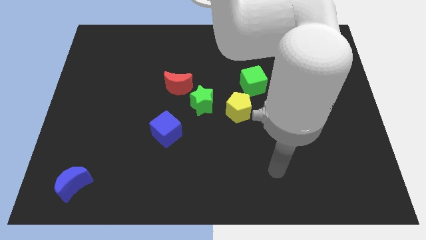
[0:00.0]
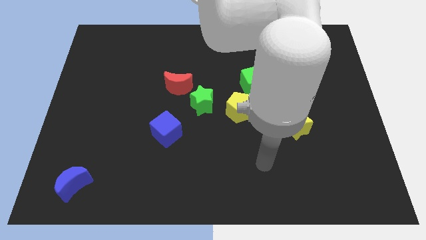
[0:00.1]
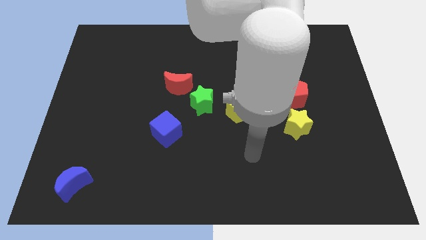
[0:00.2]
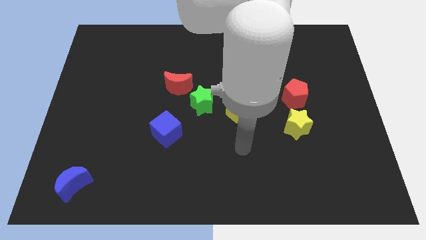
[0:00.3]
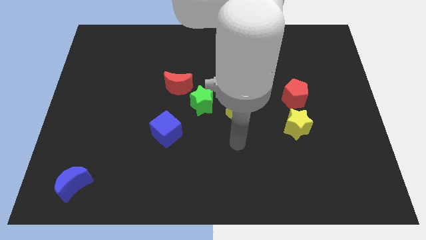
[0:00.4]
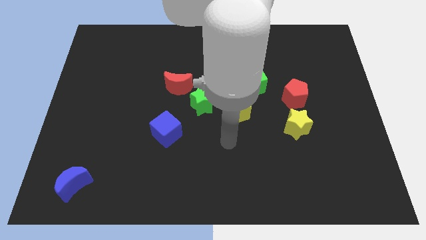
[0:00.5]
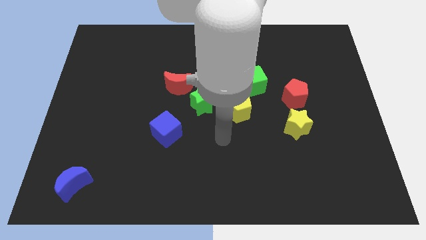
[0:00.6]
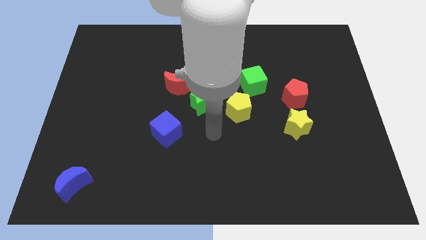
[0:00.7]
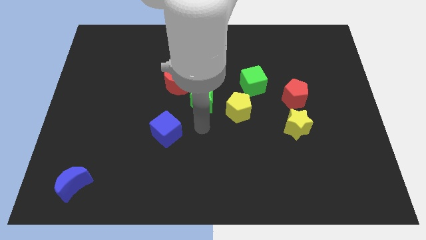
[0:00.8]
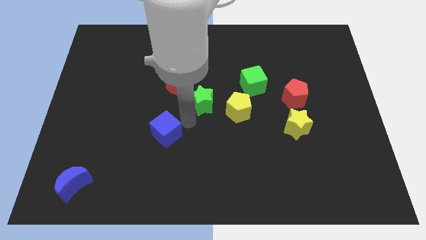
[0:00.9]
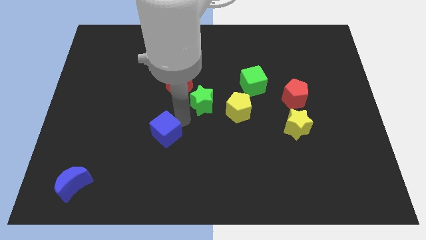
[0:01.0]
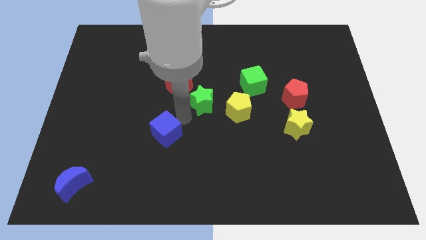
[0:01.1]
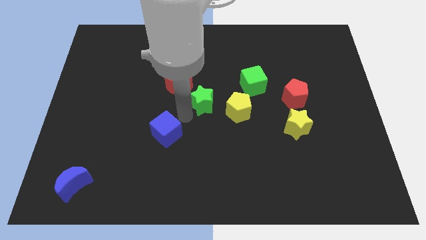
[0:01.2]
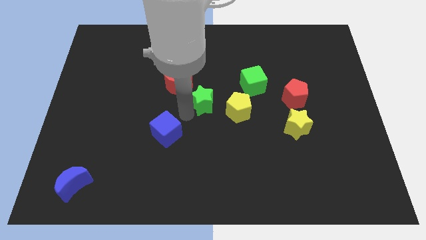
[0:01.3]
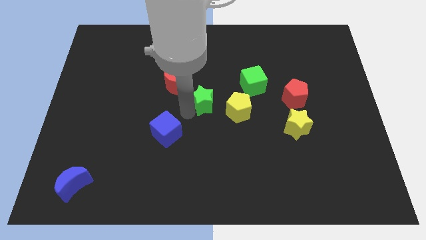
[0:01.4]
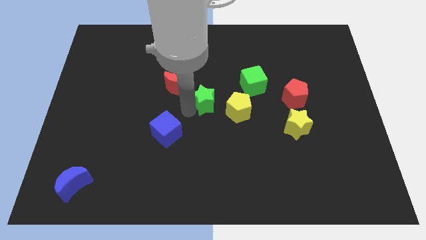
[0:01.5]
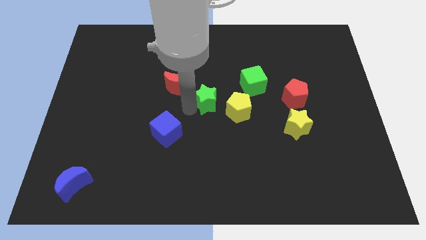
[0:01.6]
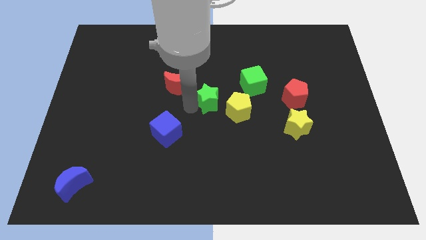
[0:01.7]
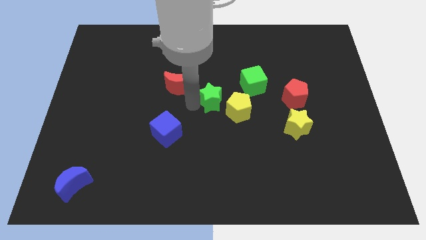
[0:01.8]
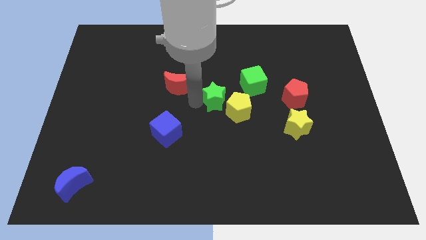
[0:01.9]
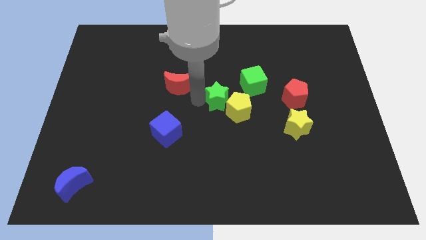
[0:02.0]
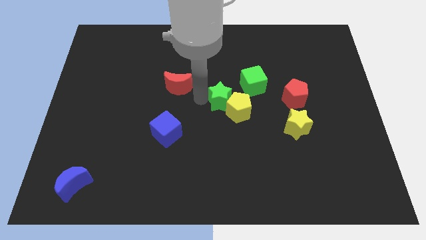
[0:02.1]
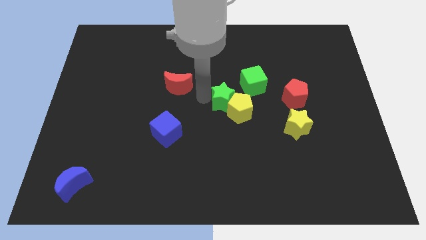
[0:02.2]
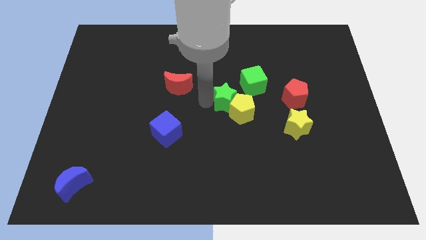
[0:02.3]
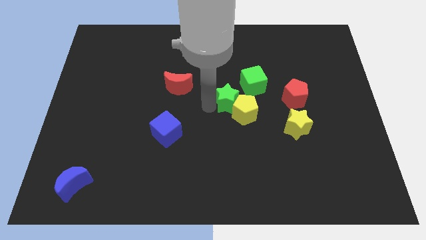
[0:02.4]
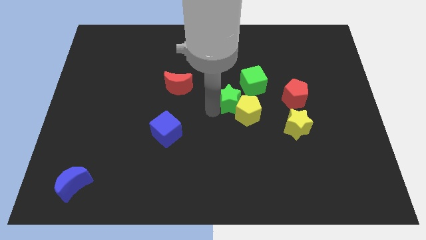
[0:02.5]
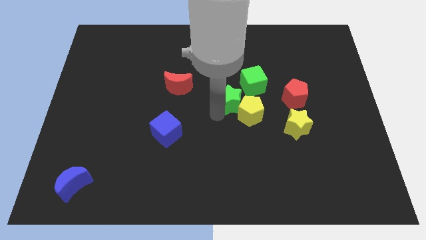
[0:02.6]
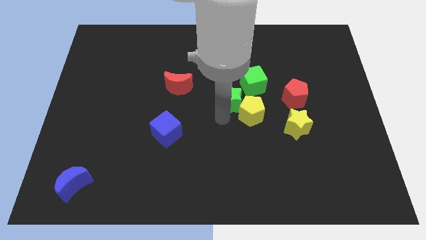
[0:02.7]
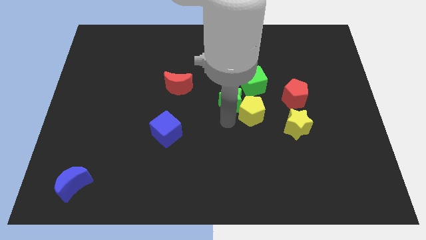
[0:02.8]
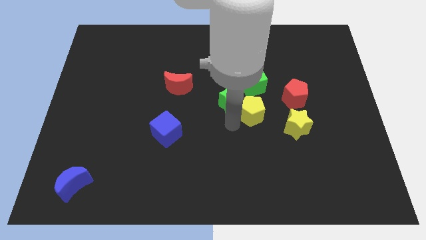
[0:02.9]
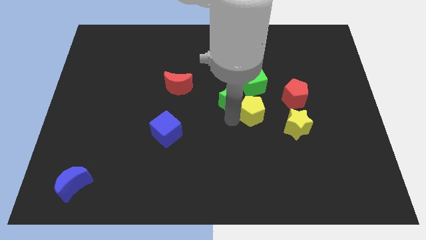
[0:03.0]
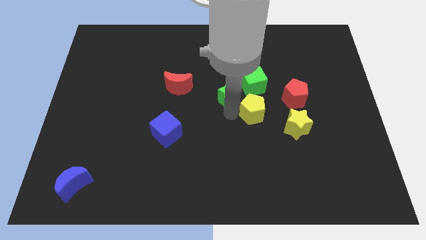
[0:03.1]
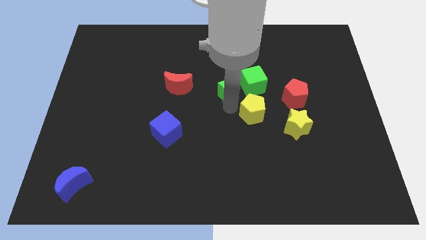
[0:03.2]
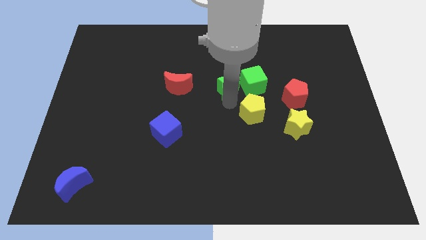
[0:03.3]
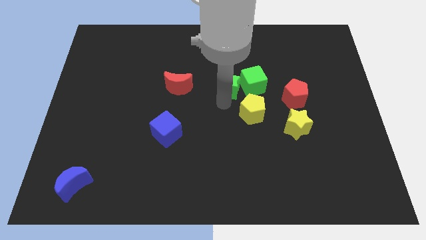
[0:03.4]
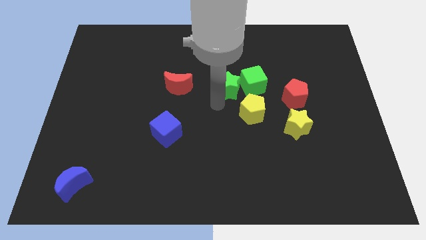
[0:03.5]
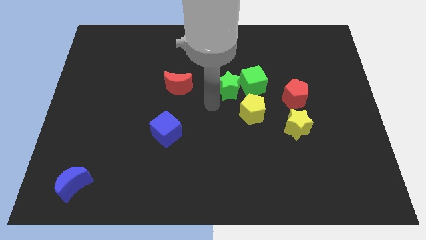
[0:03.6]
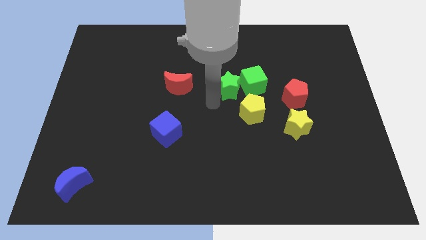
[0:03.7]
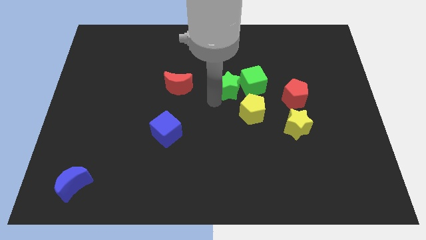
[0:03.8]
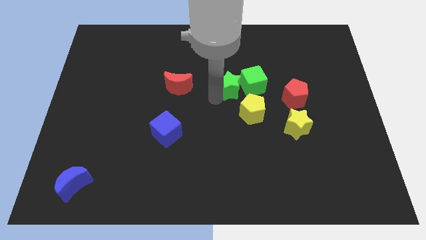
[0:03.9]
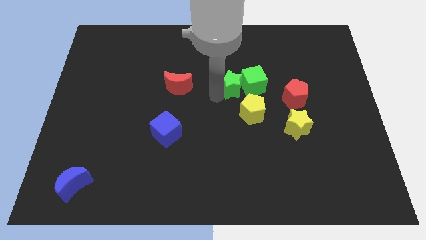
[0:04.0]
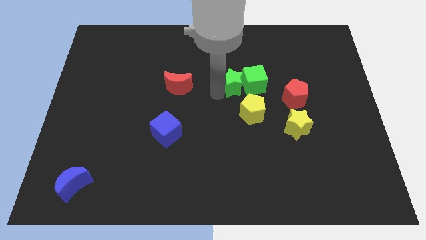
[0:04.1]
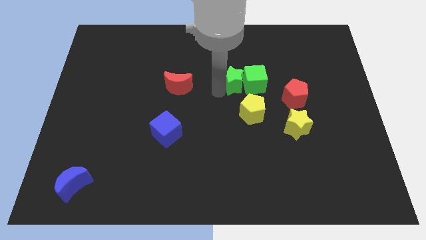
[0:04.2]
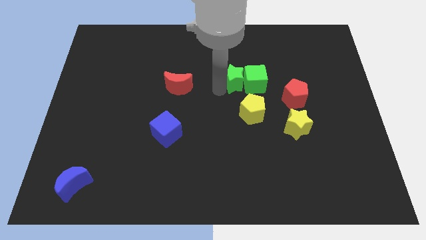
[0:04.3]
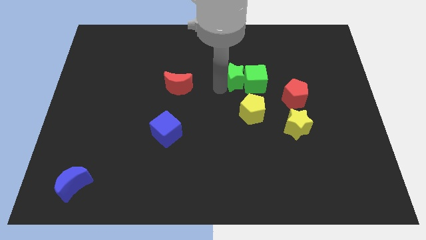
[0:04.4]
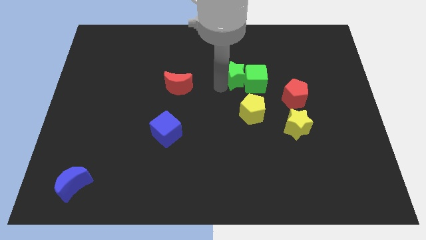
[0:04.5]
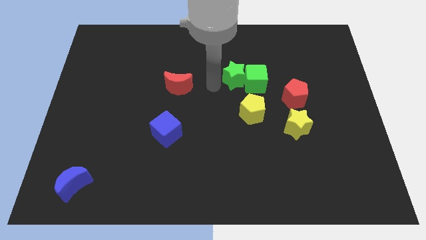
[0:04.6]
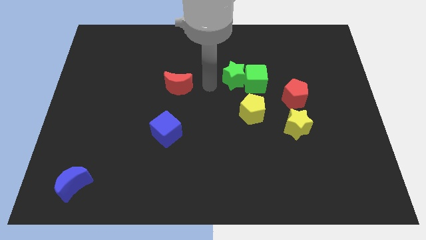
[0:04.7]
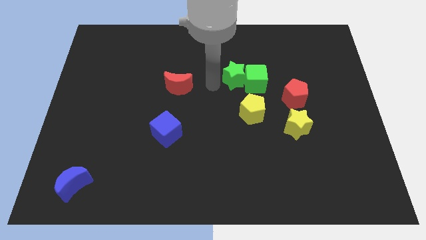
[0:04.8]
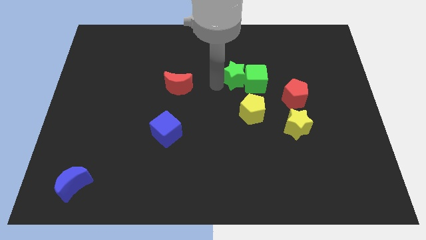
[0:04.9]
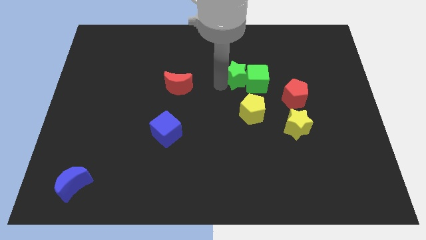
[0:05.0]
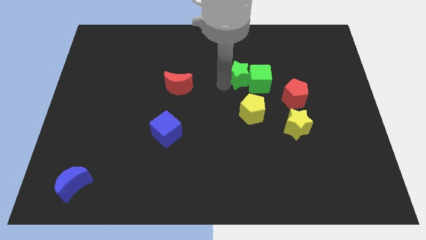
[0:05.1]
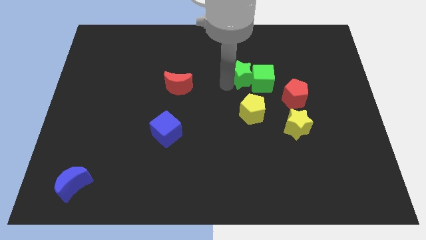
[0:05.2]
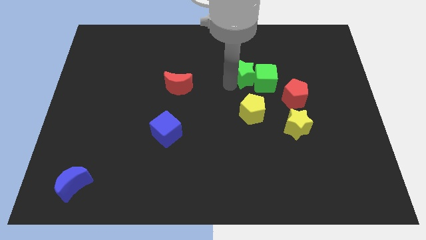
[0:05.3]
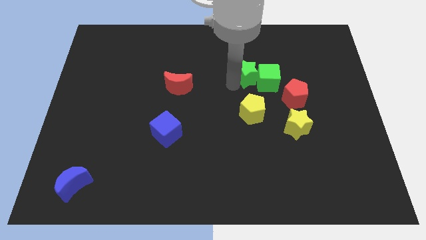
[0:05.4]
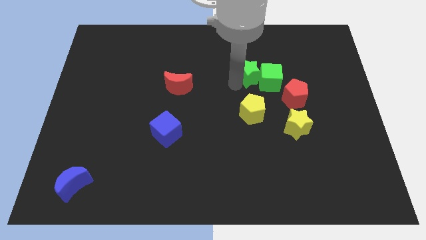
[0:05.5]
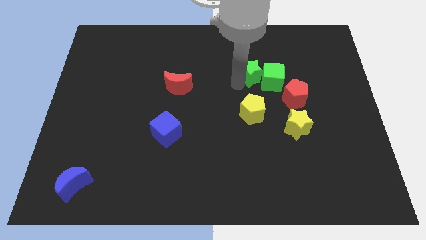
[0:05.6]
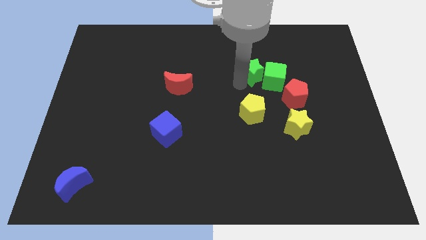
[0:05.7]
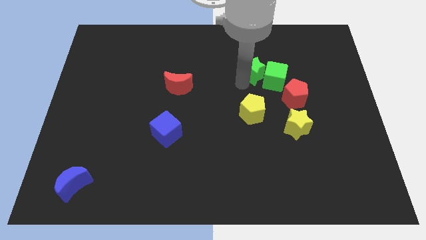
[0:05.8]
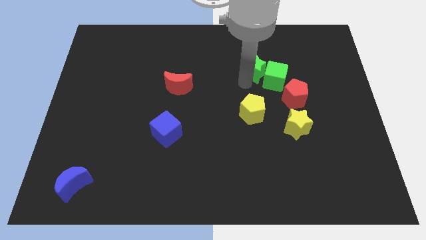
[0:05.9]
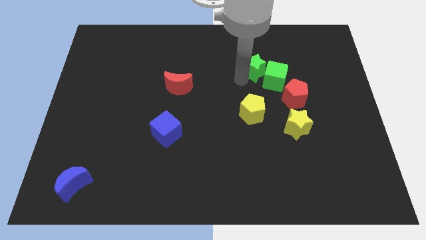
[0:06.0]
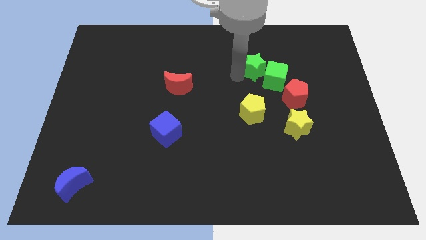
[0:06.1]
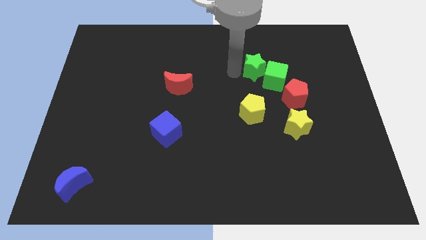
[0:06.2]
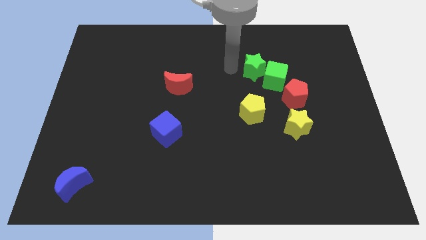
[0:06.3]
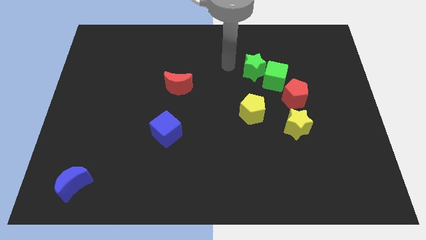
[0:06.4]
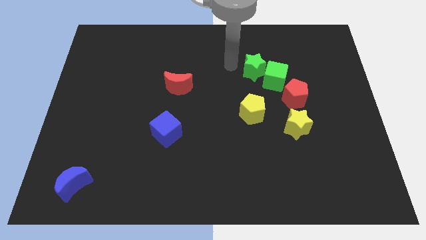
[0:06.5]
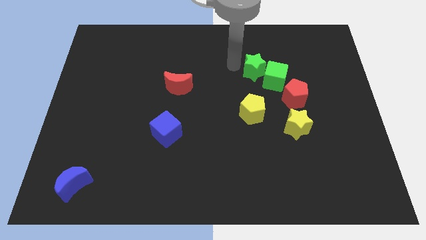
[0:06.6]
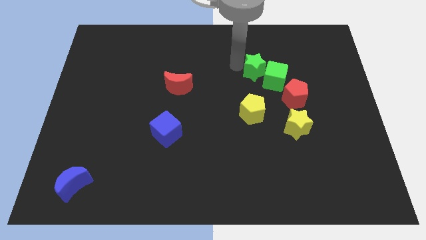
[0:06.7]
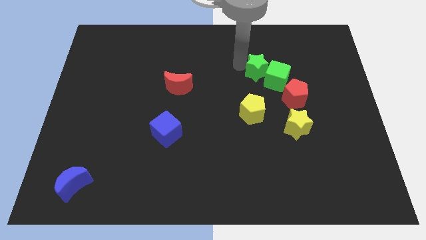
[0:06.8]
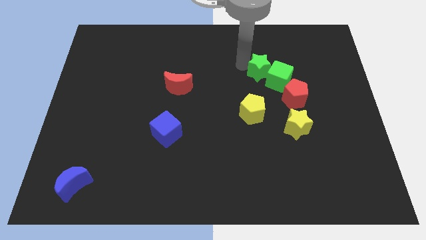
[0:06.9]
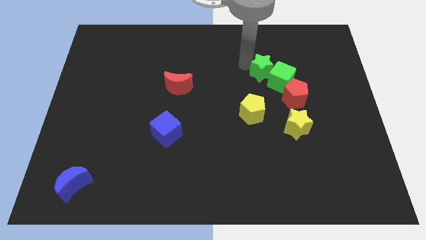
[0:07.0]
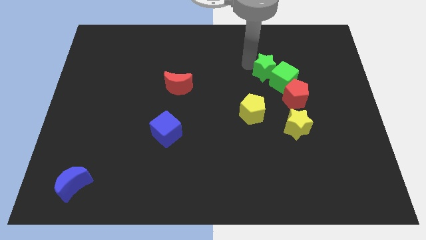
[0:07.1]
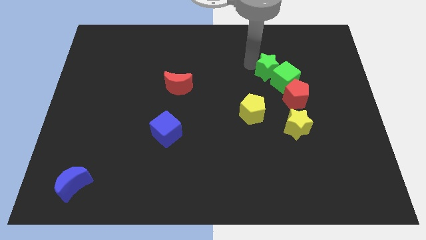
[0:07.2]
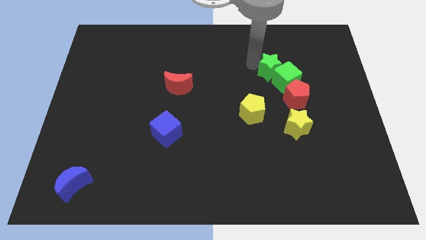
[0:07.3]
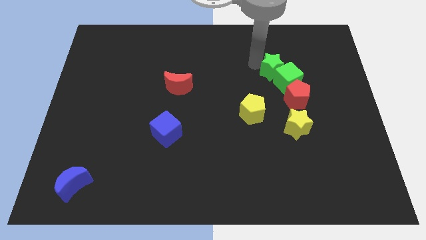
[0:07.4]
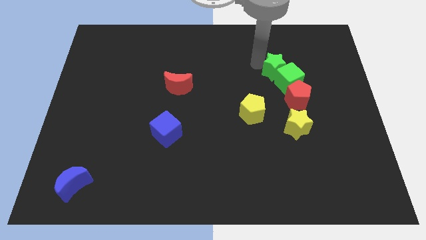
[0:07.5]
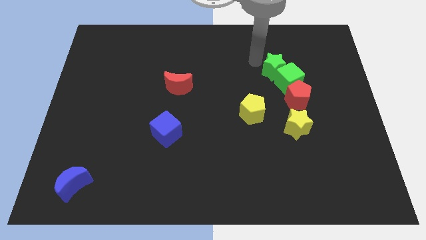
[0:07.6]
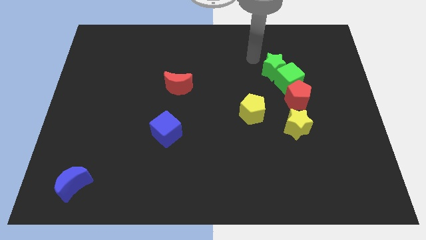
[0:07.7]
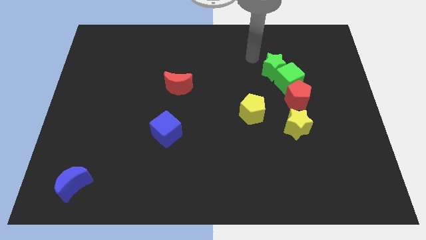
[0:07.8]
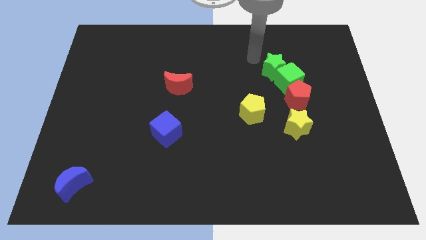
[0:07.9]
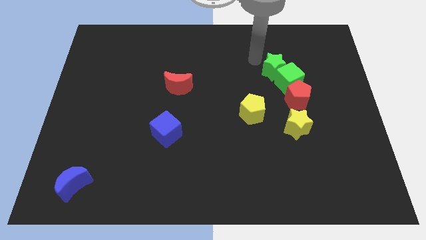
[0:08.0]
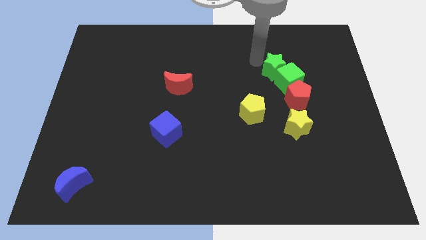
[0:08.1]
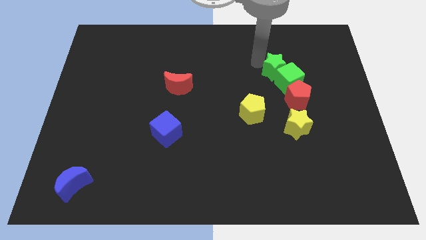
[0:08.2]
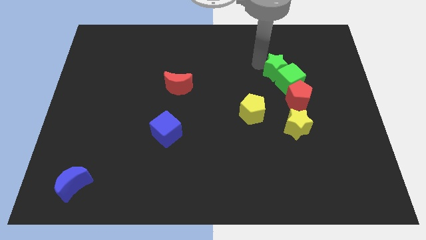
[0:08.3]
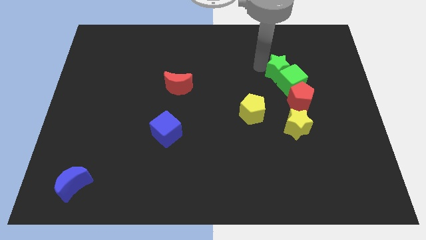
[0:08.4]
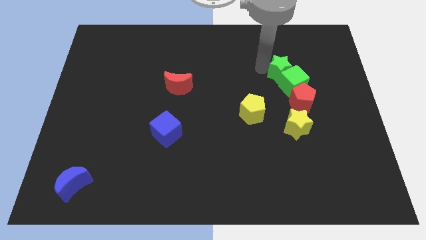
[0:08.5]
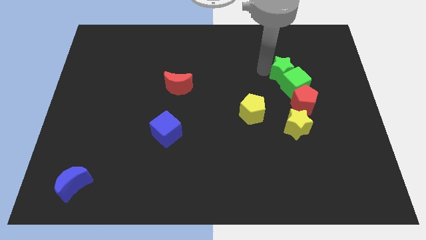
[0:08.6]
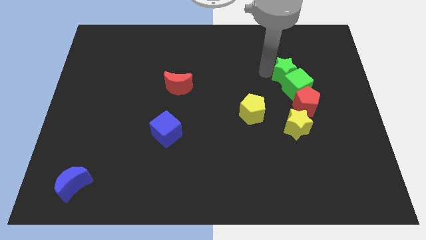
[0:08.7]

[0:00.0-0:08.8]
move the green star to the top of the yellow star
